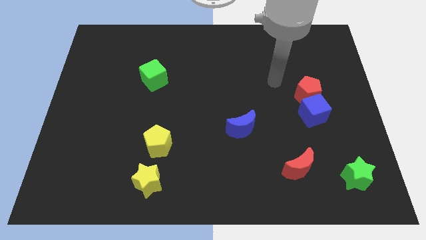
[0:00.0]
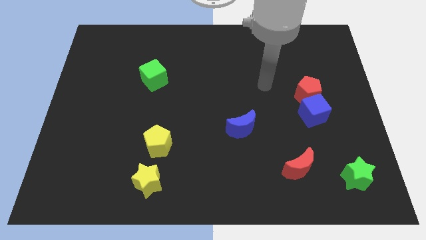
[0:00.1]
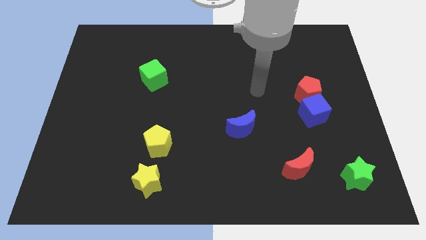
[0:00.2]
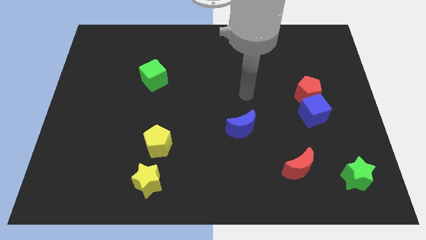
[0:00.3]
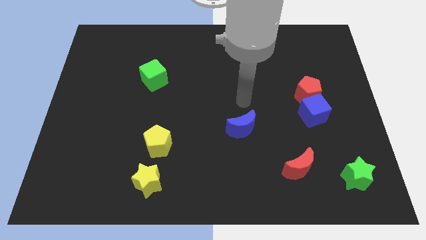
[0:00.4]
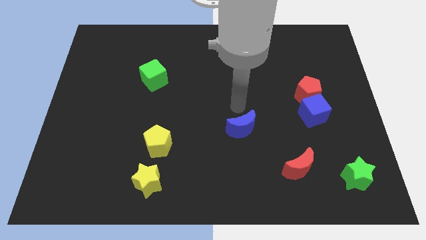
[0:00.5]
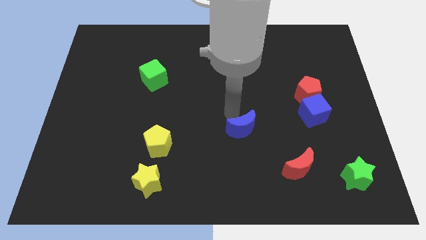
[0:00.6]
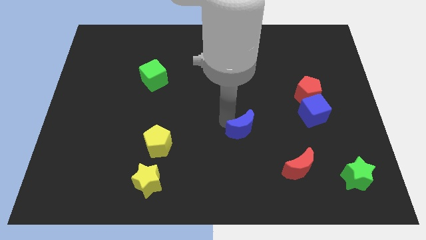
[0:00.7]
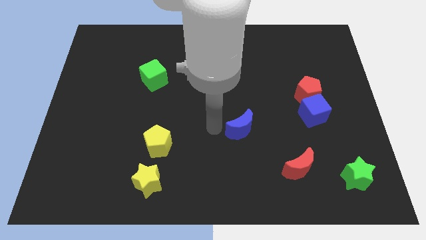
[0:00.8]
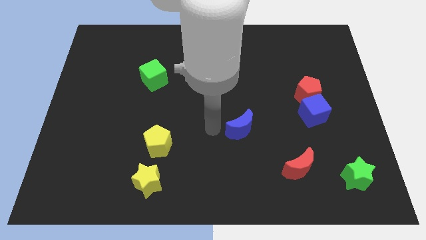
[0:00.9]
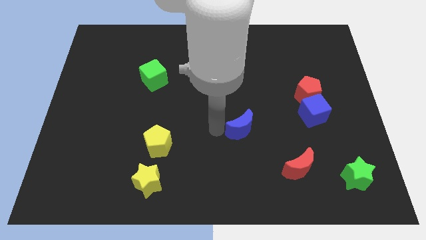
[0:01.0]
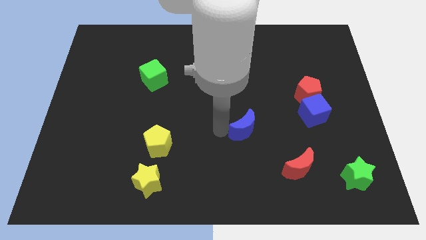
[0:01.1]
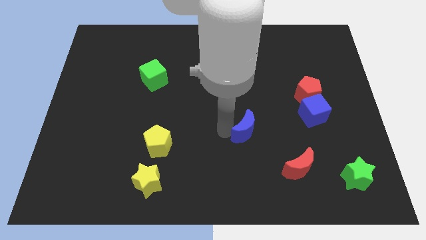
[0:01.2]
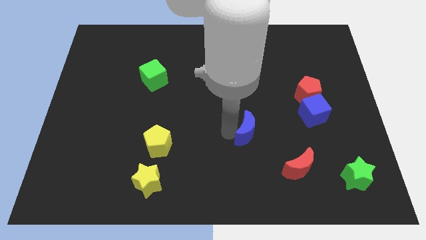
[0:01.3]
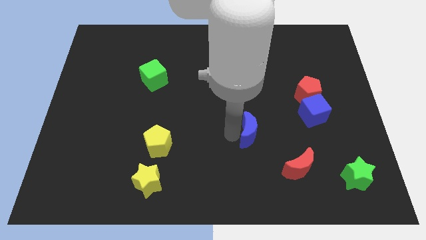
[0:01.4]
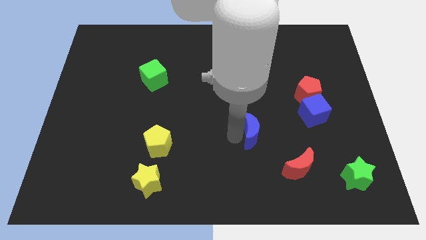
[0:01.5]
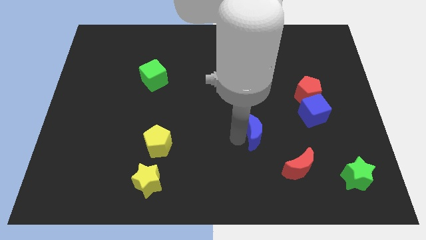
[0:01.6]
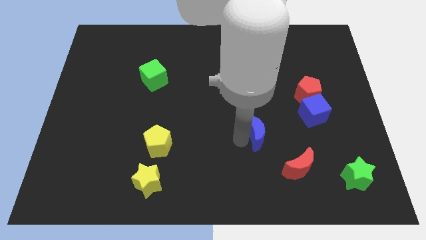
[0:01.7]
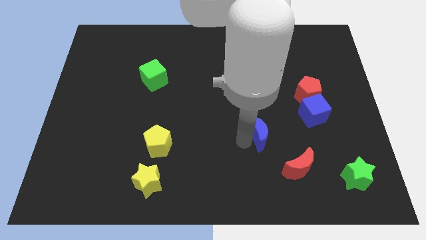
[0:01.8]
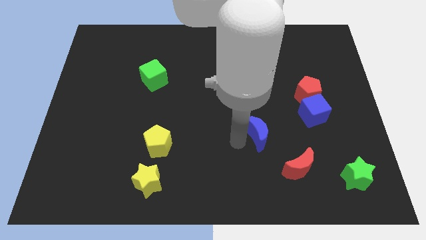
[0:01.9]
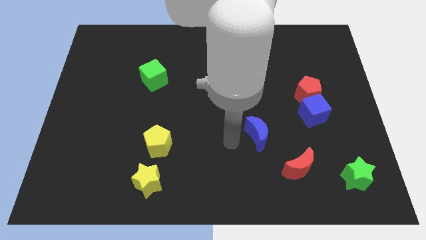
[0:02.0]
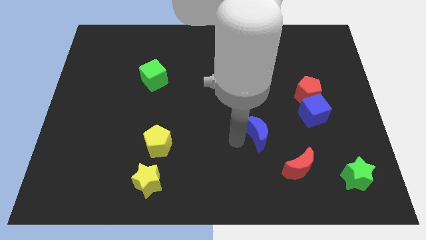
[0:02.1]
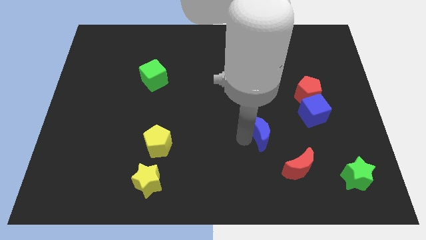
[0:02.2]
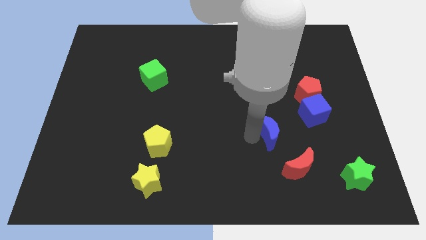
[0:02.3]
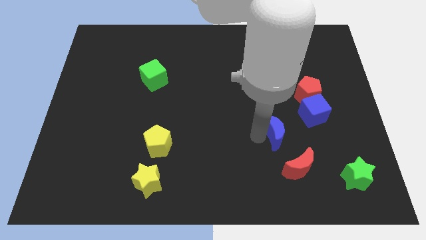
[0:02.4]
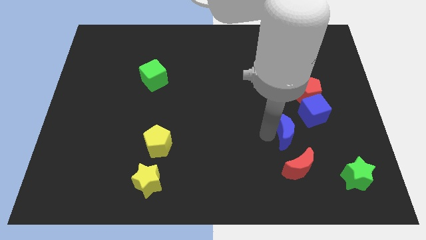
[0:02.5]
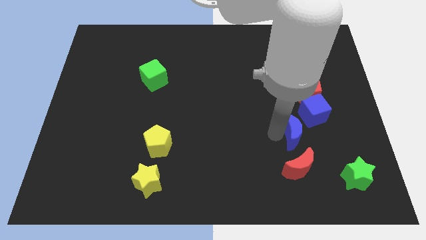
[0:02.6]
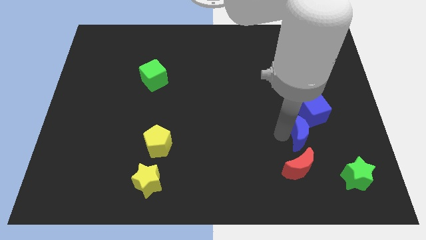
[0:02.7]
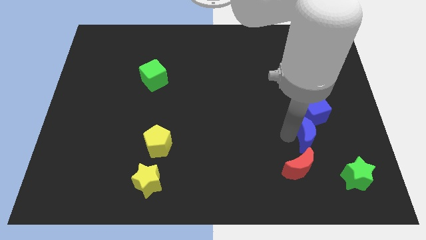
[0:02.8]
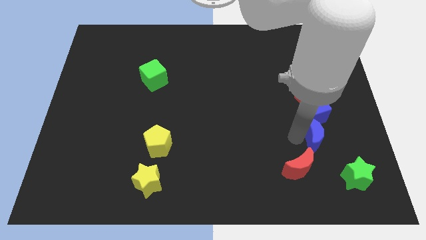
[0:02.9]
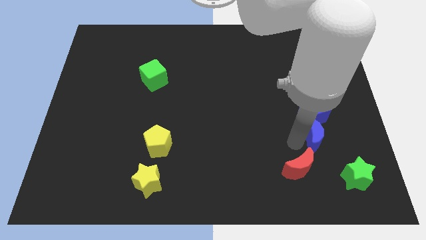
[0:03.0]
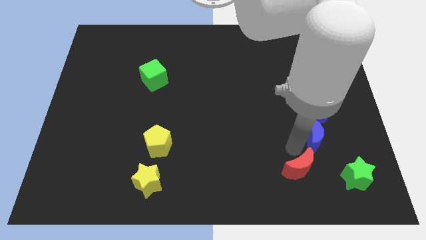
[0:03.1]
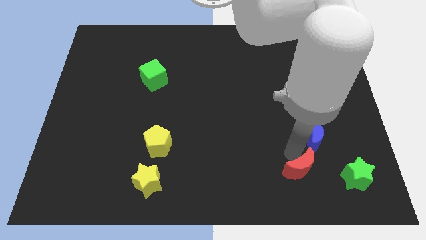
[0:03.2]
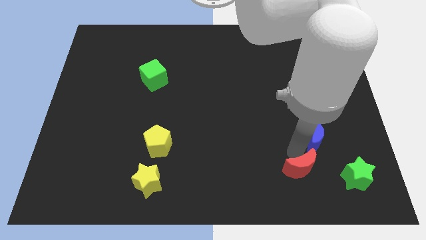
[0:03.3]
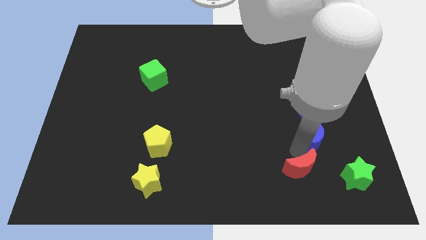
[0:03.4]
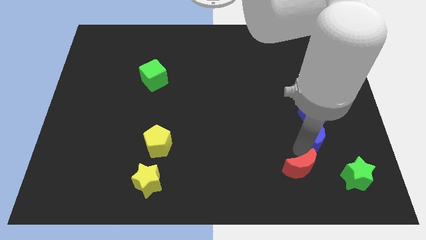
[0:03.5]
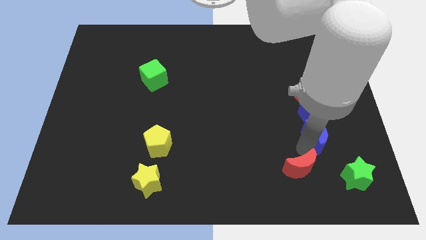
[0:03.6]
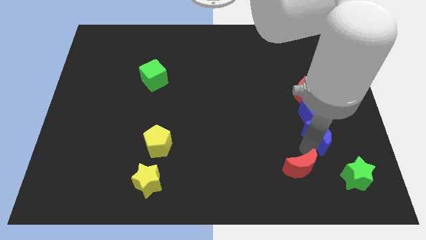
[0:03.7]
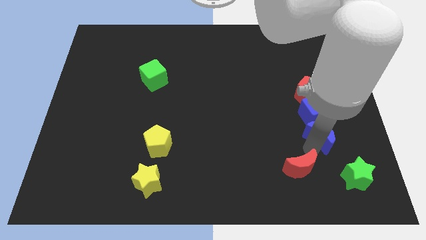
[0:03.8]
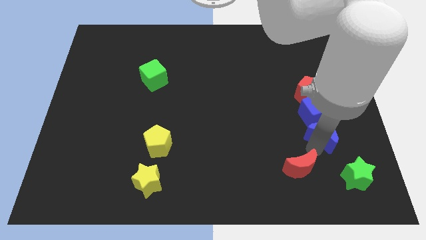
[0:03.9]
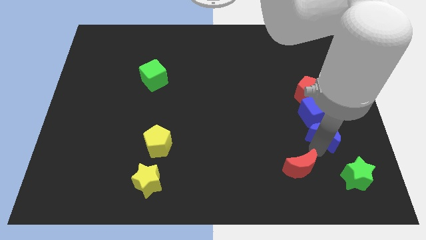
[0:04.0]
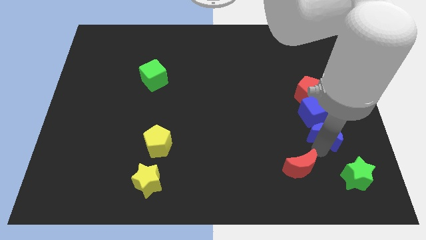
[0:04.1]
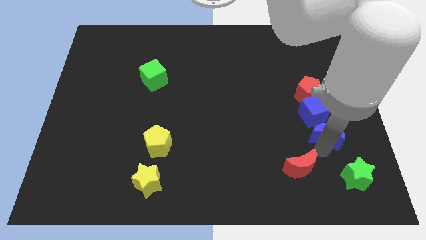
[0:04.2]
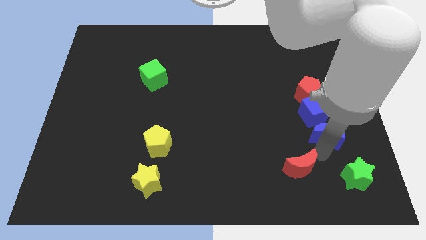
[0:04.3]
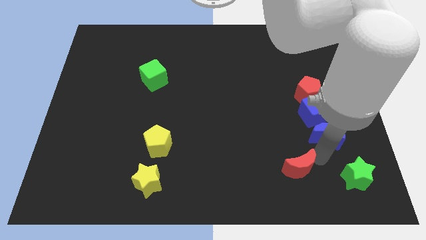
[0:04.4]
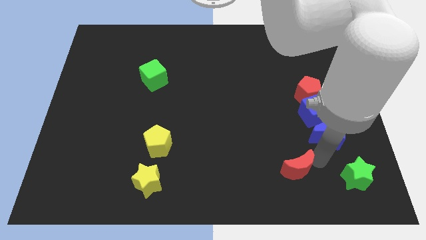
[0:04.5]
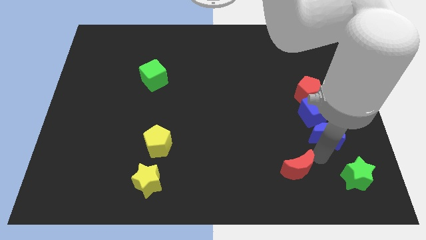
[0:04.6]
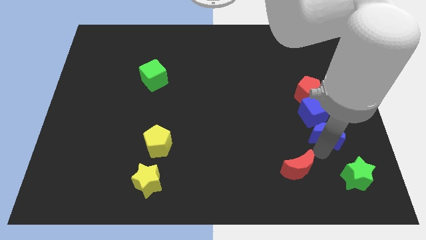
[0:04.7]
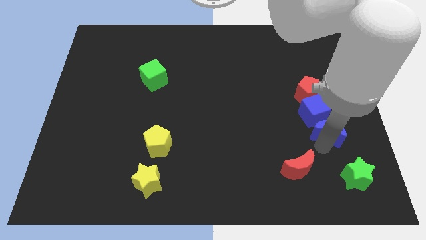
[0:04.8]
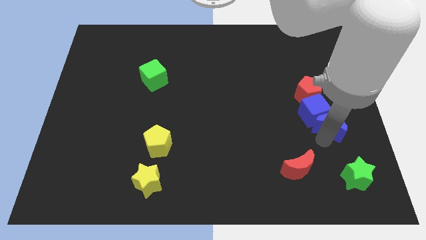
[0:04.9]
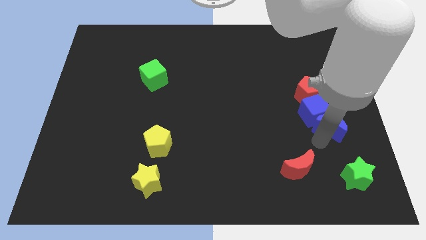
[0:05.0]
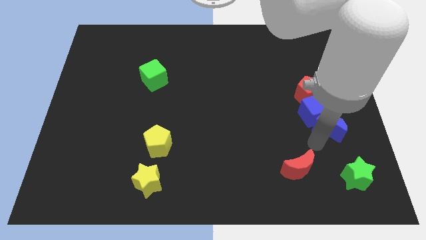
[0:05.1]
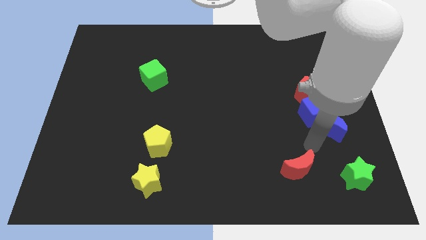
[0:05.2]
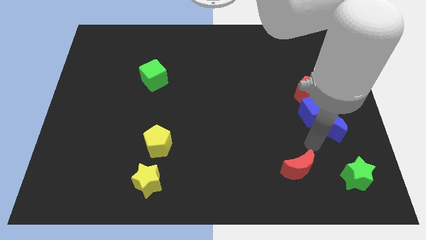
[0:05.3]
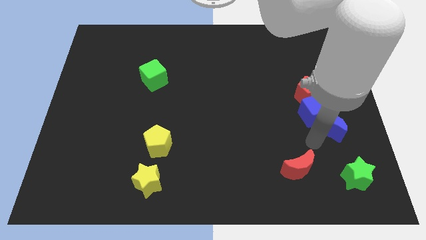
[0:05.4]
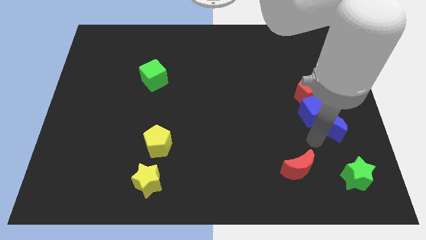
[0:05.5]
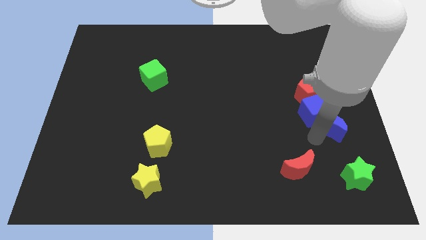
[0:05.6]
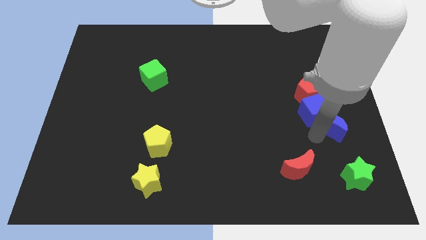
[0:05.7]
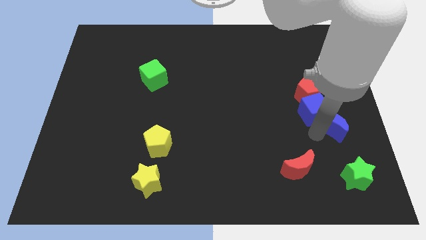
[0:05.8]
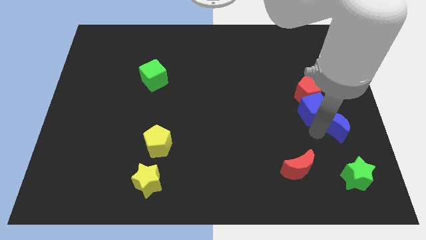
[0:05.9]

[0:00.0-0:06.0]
push the blue moon to the right side
